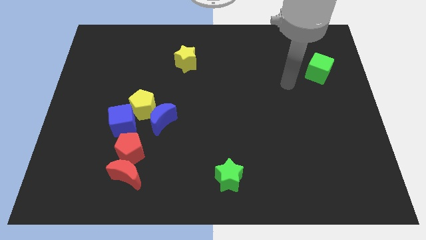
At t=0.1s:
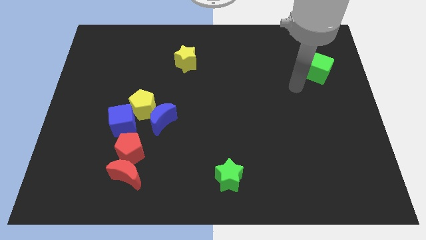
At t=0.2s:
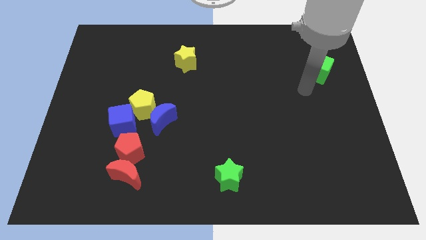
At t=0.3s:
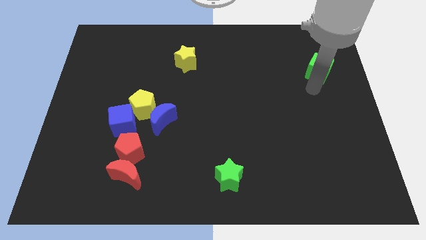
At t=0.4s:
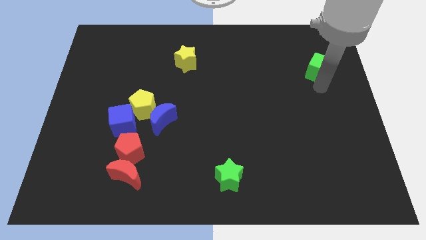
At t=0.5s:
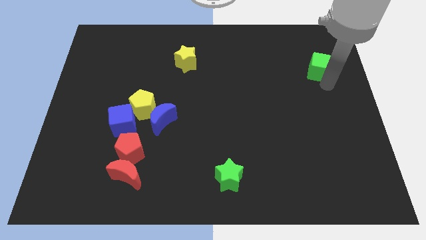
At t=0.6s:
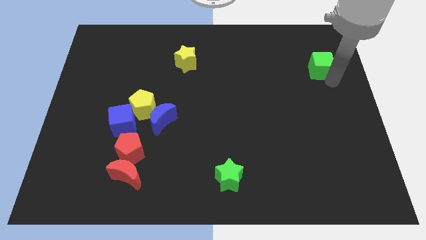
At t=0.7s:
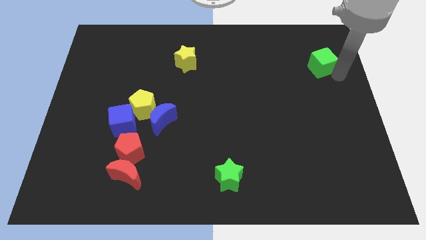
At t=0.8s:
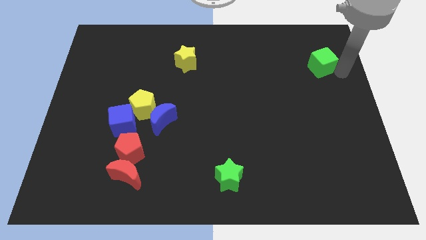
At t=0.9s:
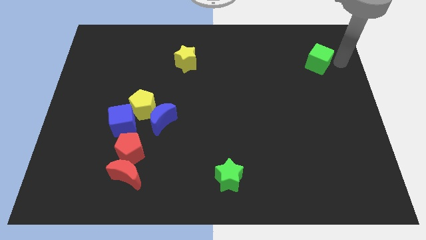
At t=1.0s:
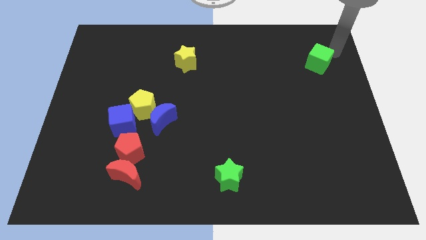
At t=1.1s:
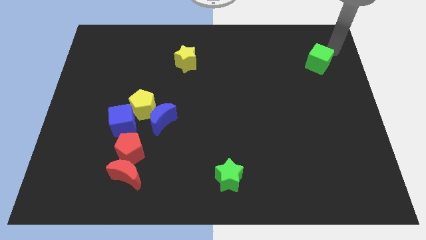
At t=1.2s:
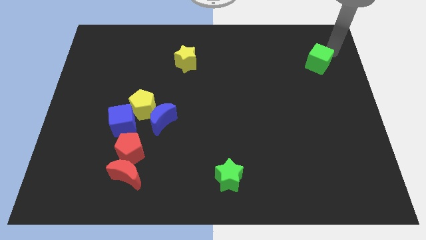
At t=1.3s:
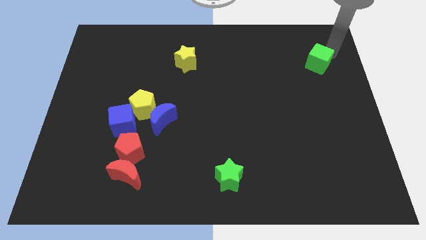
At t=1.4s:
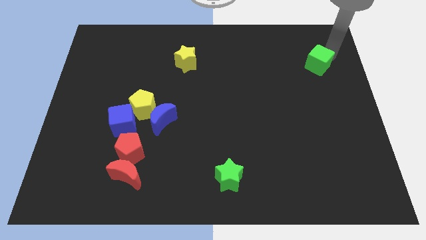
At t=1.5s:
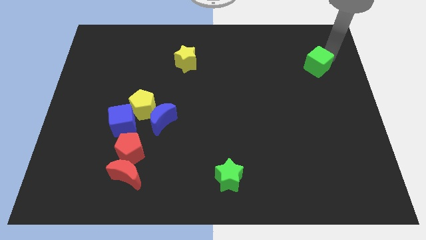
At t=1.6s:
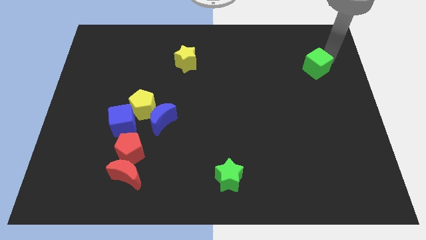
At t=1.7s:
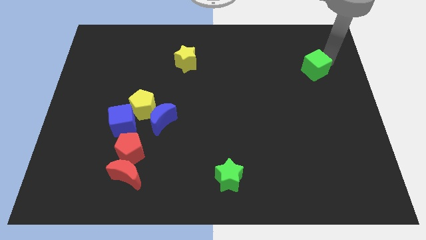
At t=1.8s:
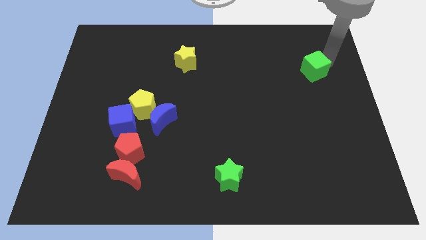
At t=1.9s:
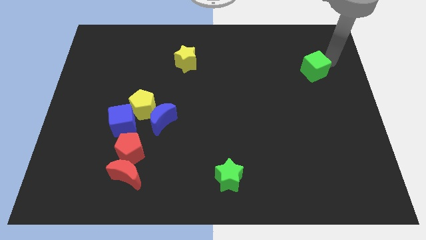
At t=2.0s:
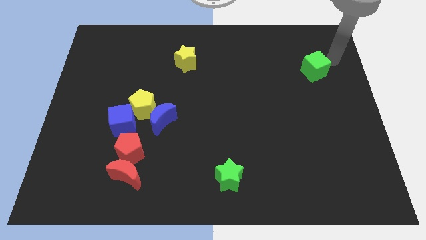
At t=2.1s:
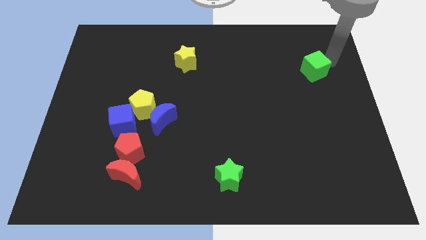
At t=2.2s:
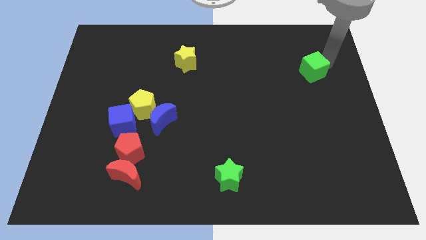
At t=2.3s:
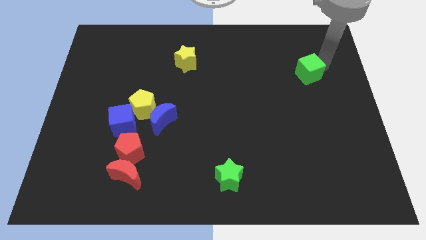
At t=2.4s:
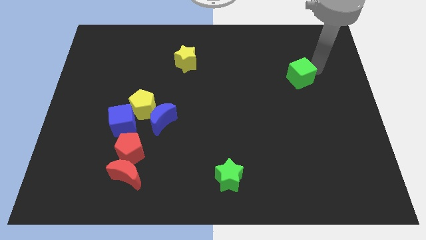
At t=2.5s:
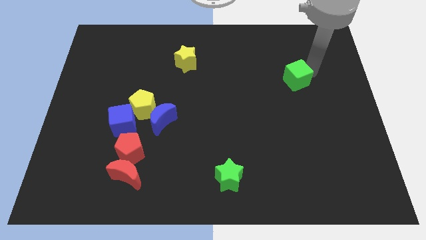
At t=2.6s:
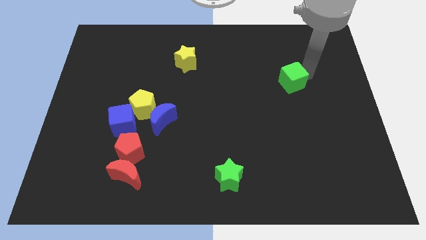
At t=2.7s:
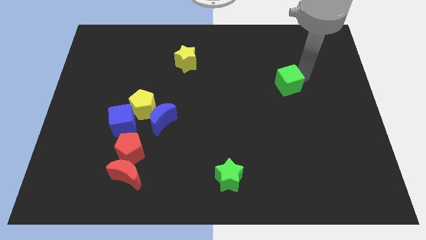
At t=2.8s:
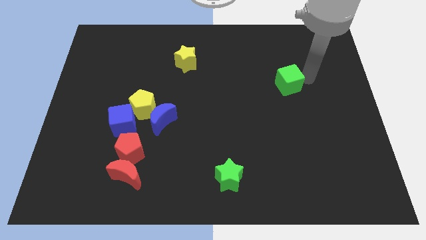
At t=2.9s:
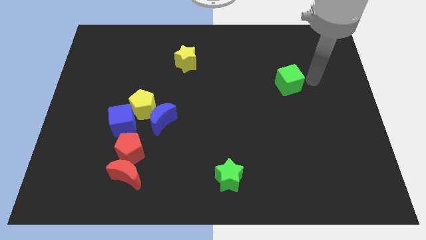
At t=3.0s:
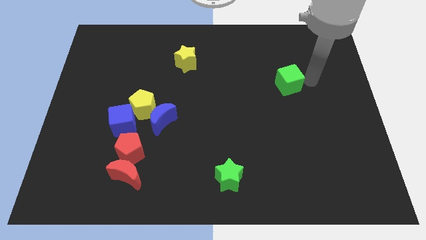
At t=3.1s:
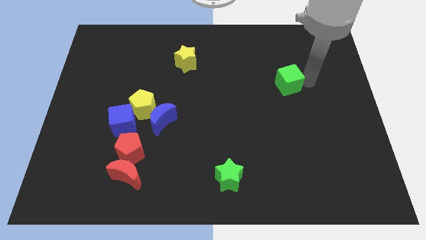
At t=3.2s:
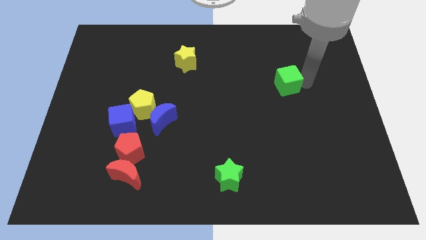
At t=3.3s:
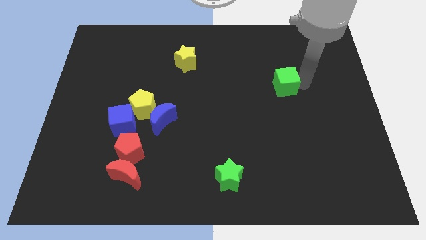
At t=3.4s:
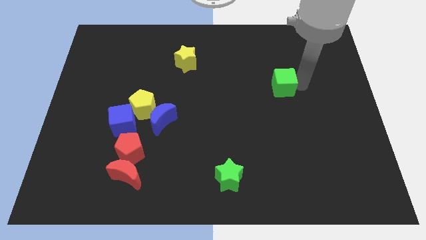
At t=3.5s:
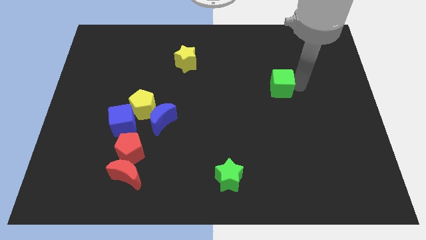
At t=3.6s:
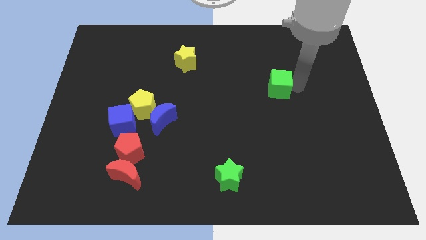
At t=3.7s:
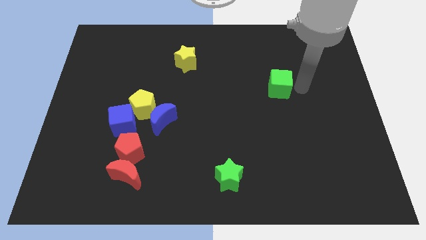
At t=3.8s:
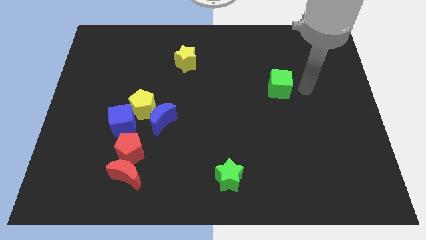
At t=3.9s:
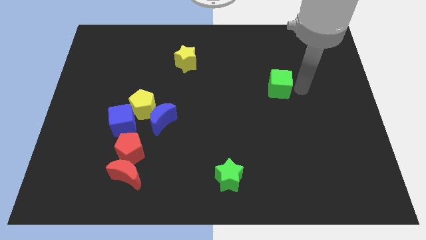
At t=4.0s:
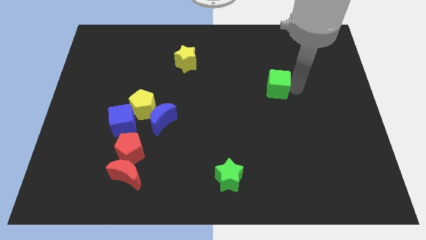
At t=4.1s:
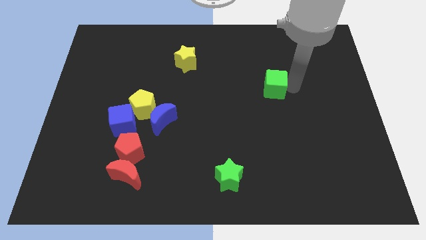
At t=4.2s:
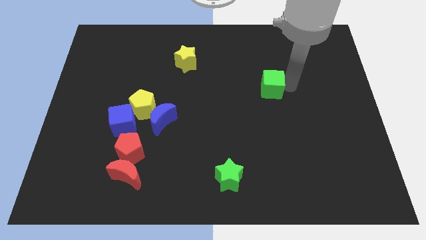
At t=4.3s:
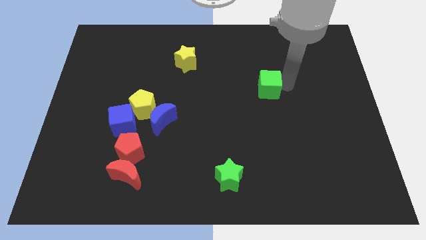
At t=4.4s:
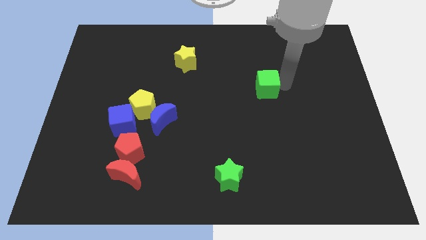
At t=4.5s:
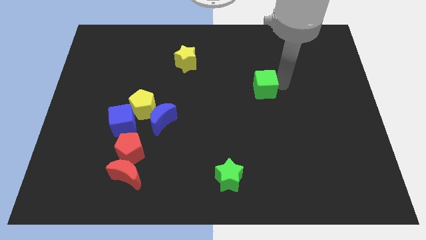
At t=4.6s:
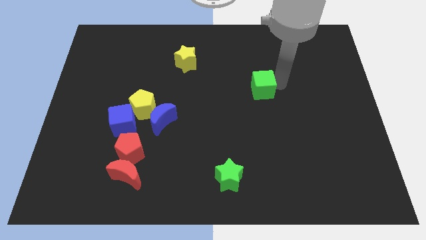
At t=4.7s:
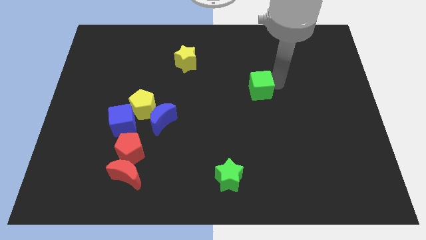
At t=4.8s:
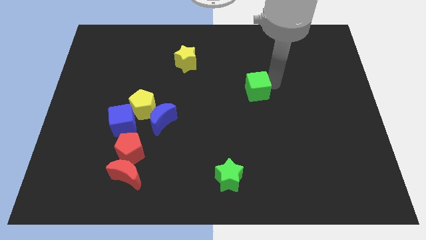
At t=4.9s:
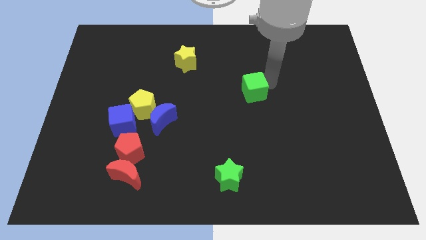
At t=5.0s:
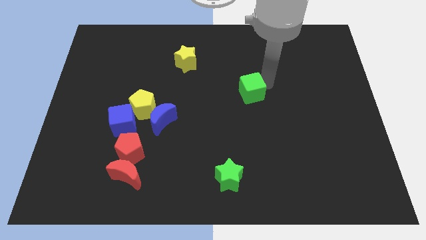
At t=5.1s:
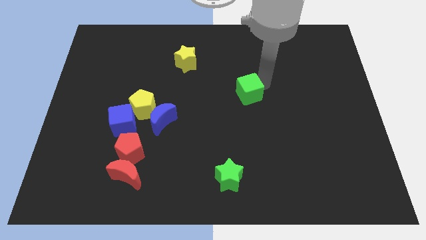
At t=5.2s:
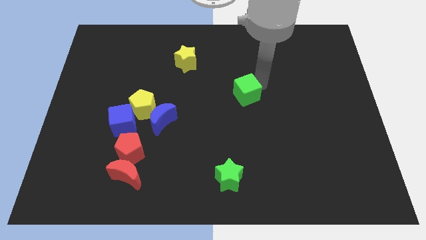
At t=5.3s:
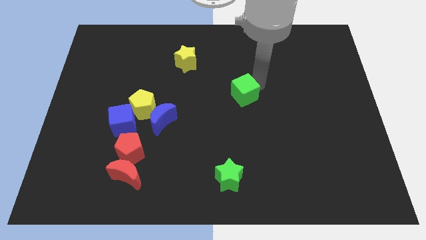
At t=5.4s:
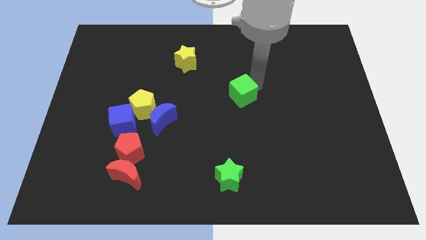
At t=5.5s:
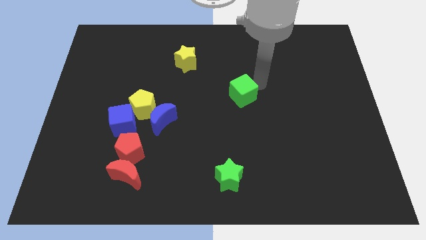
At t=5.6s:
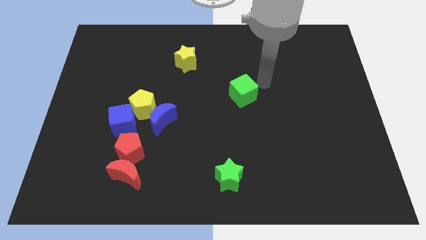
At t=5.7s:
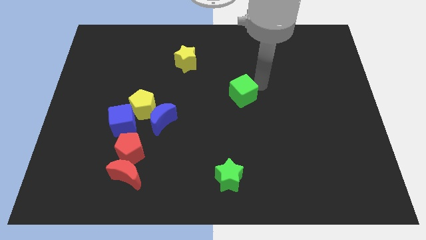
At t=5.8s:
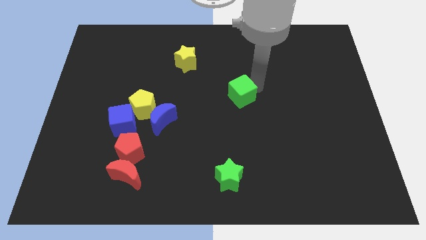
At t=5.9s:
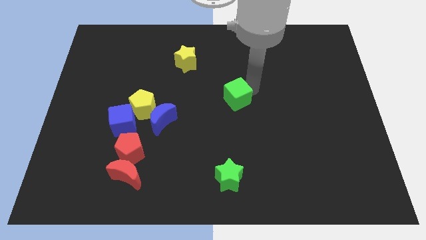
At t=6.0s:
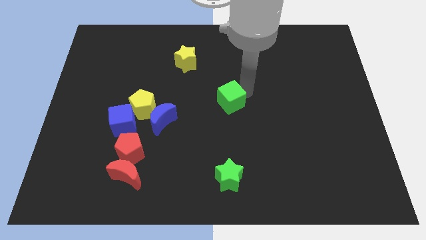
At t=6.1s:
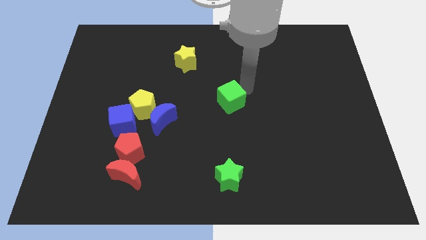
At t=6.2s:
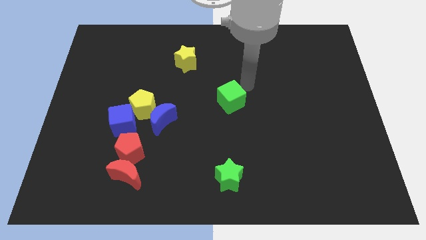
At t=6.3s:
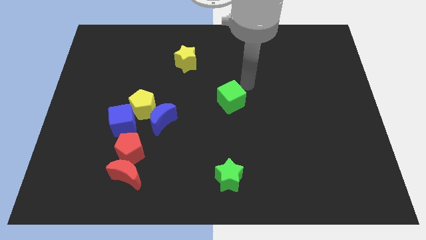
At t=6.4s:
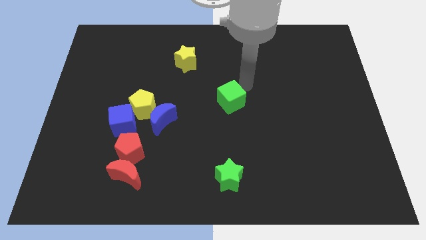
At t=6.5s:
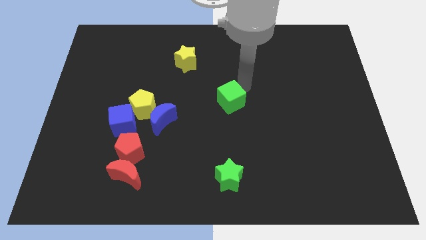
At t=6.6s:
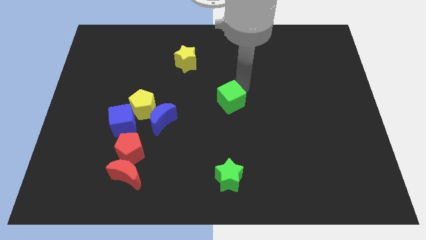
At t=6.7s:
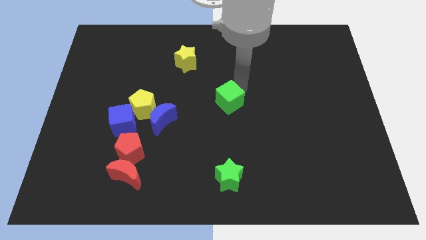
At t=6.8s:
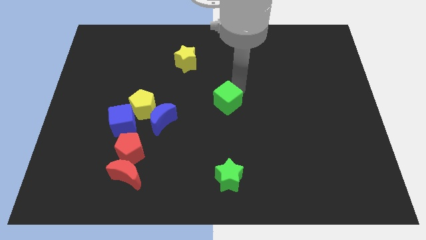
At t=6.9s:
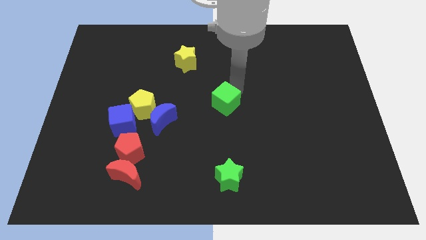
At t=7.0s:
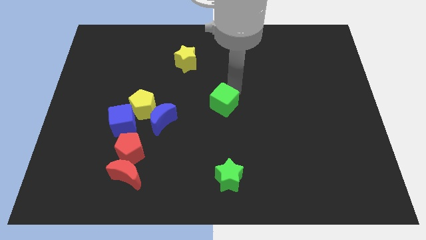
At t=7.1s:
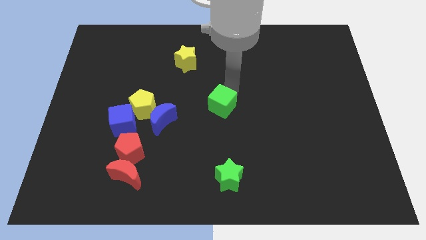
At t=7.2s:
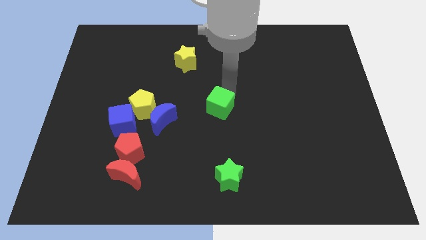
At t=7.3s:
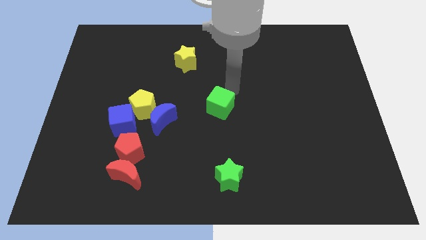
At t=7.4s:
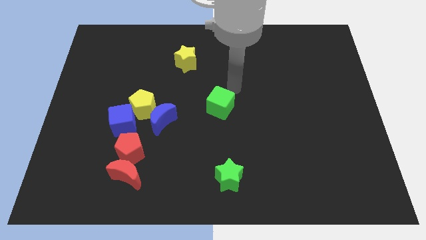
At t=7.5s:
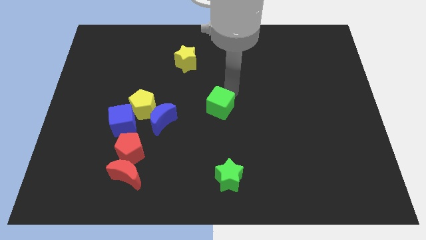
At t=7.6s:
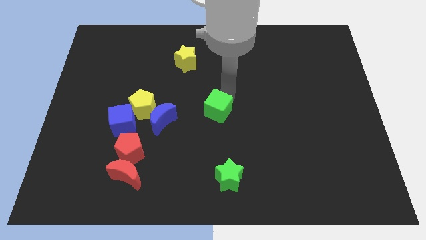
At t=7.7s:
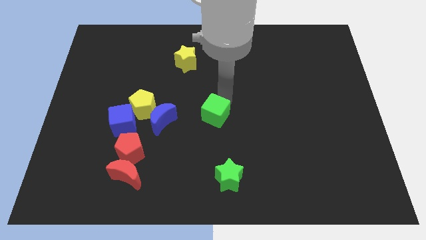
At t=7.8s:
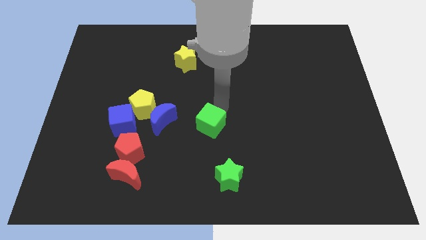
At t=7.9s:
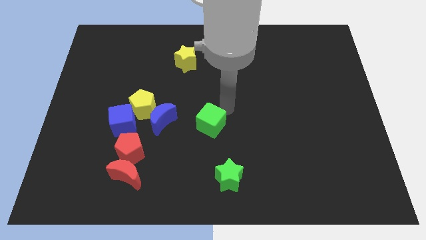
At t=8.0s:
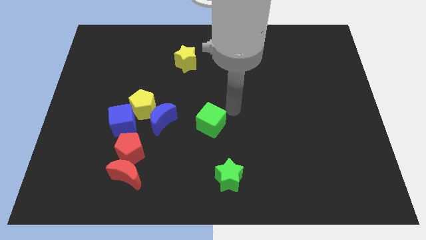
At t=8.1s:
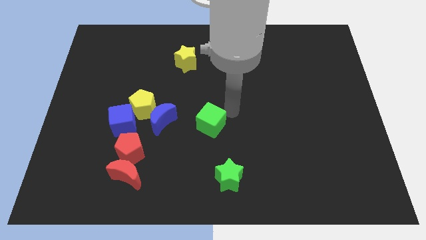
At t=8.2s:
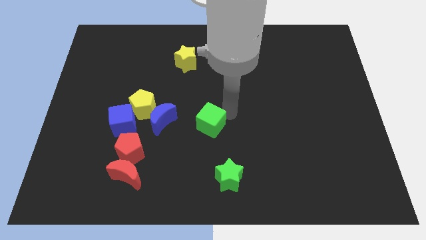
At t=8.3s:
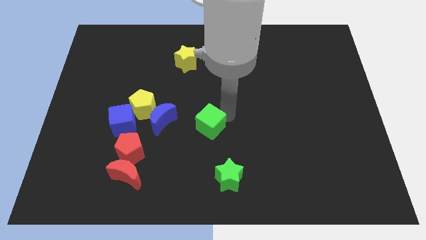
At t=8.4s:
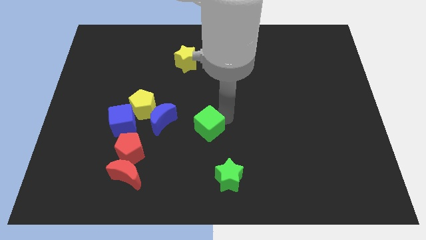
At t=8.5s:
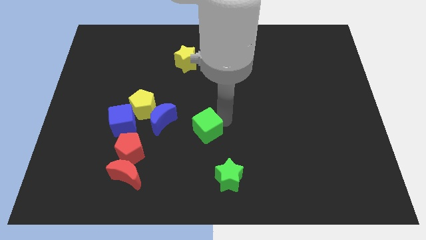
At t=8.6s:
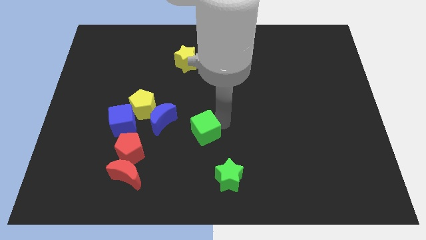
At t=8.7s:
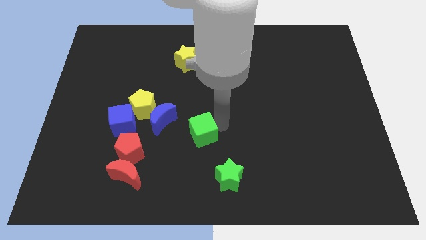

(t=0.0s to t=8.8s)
move the green cube diagonally down and to the right of the blue moon
